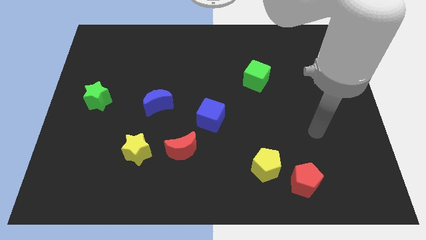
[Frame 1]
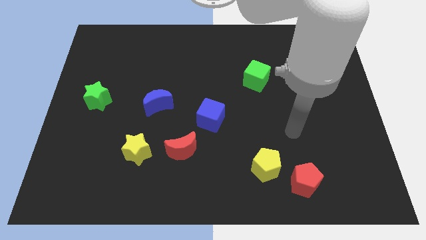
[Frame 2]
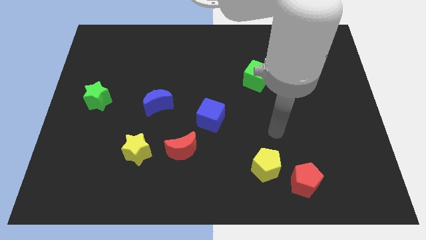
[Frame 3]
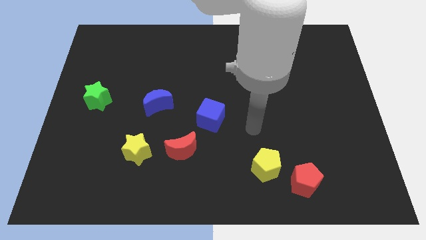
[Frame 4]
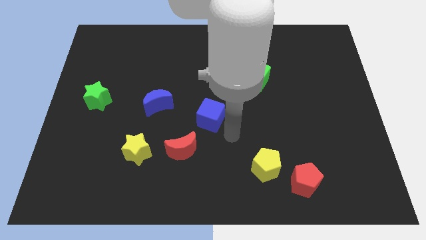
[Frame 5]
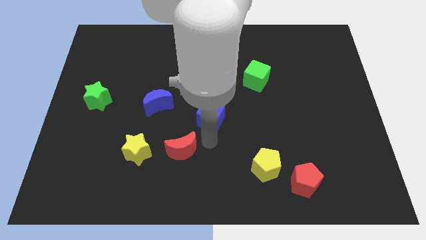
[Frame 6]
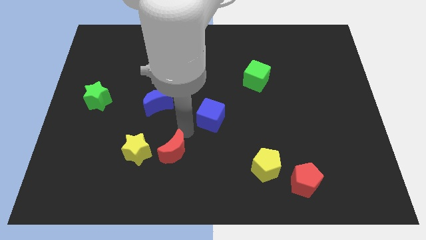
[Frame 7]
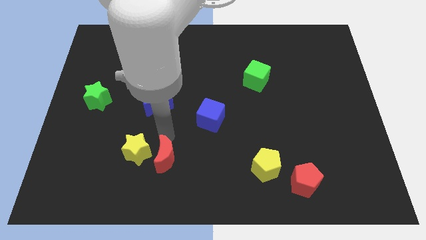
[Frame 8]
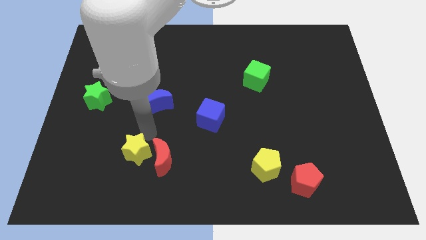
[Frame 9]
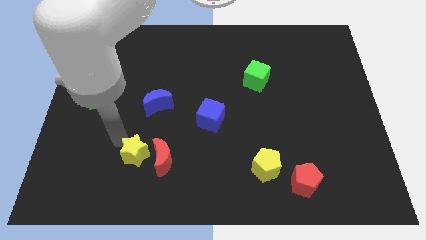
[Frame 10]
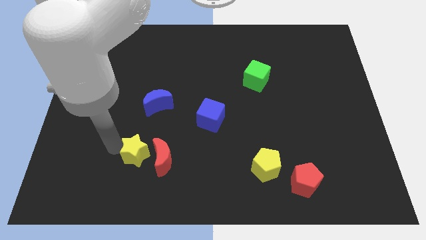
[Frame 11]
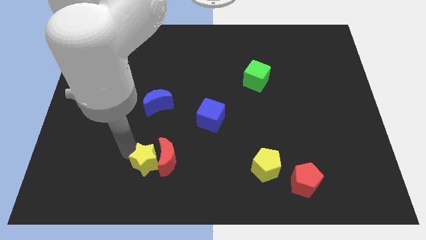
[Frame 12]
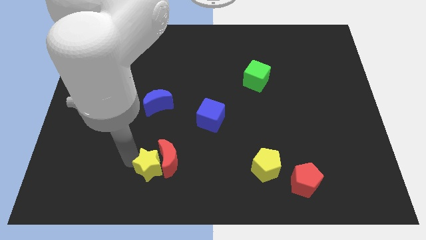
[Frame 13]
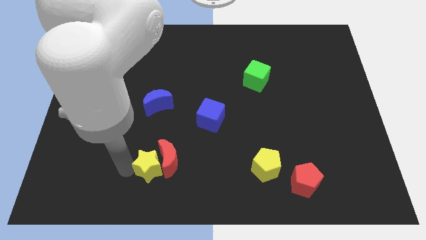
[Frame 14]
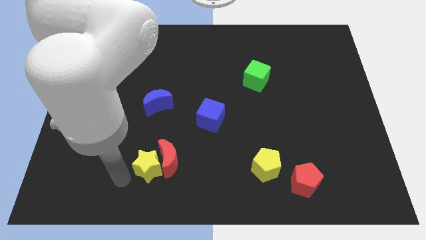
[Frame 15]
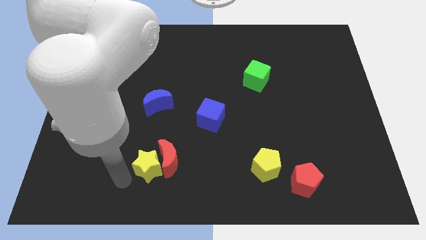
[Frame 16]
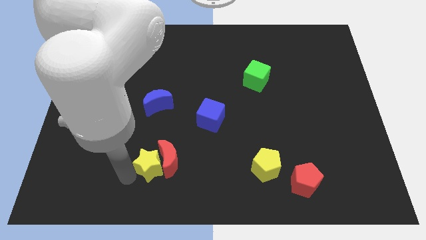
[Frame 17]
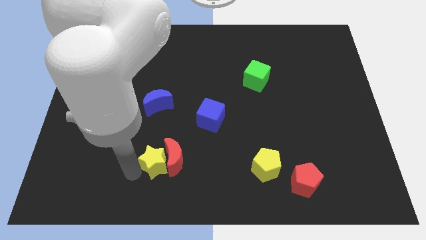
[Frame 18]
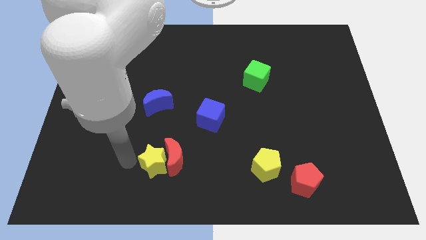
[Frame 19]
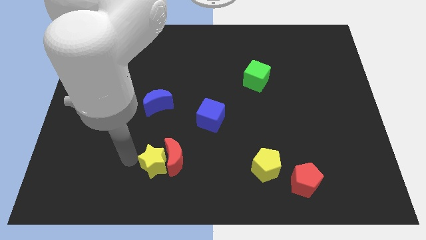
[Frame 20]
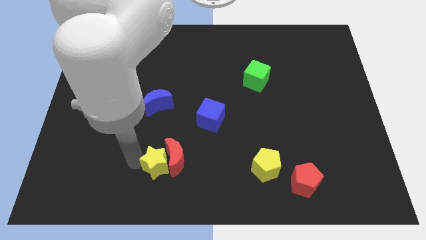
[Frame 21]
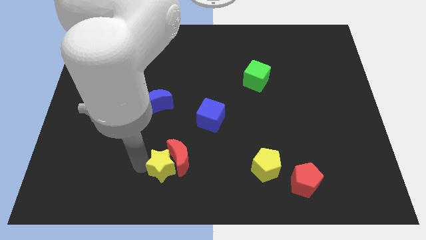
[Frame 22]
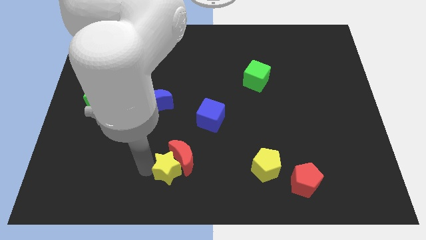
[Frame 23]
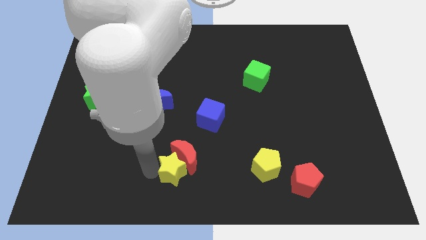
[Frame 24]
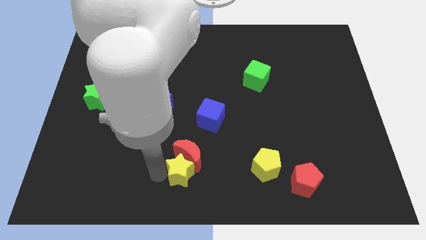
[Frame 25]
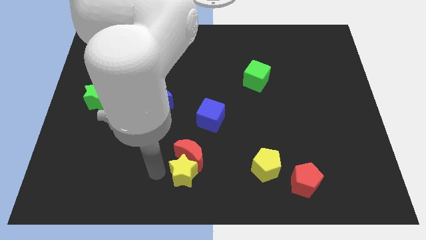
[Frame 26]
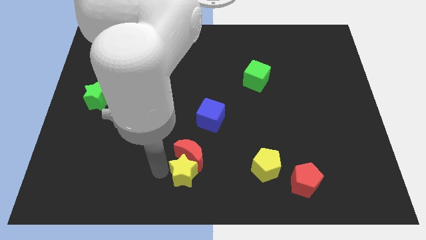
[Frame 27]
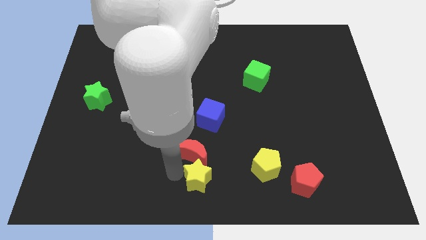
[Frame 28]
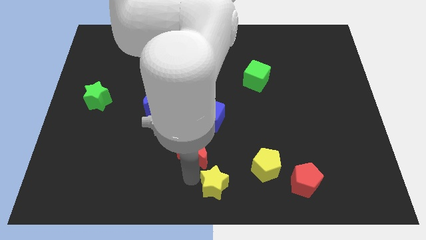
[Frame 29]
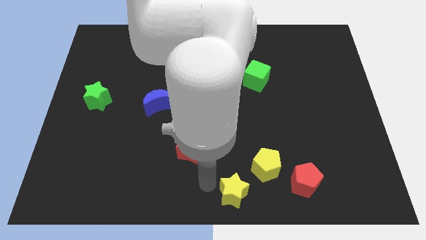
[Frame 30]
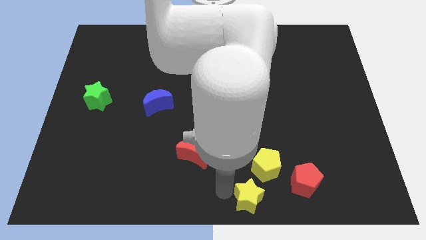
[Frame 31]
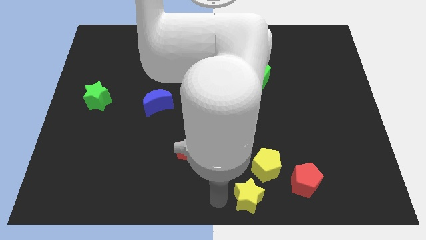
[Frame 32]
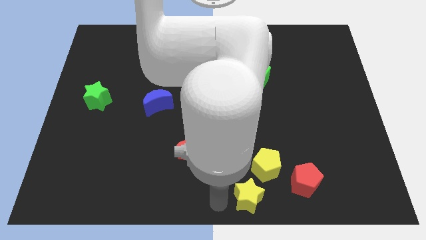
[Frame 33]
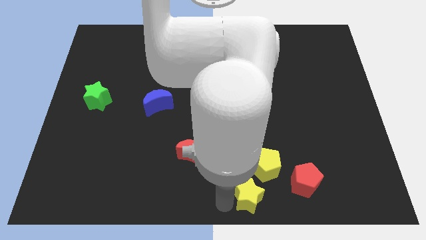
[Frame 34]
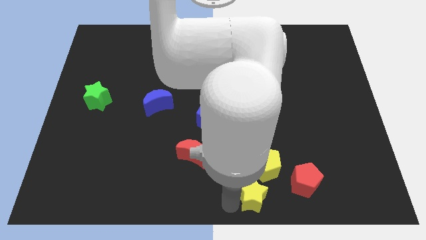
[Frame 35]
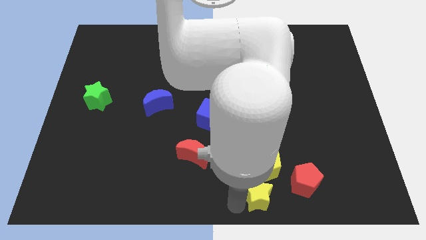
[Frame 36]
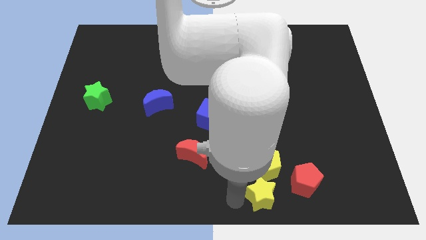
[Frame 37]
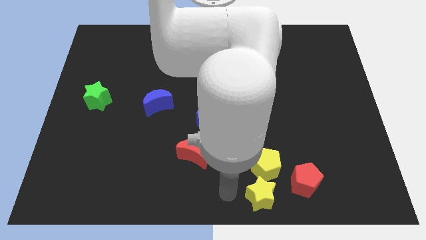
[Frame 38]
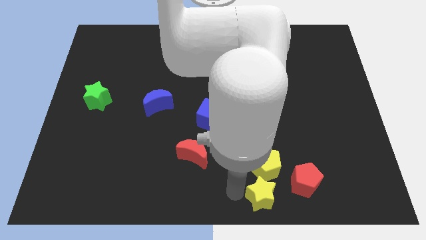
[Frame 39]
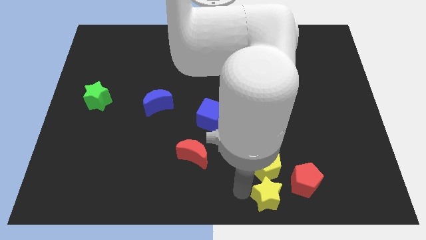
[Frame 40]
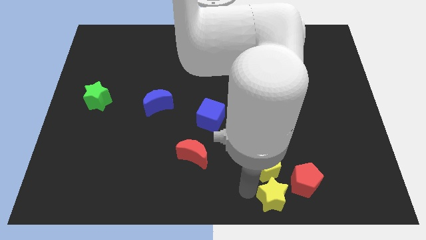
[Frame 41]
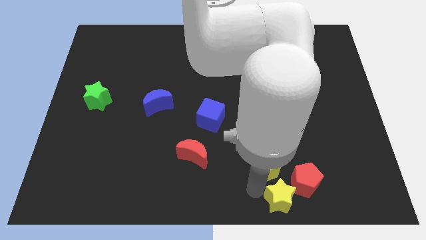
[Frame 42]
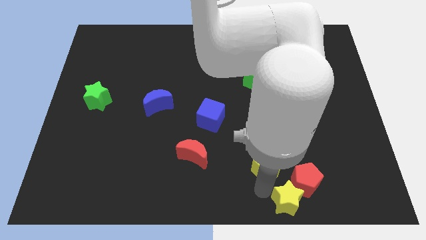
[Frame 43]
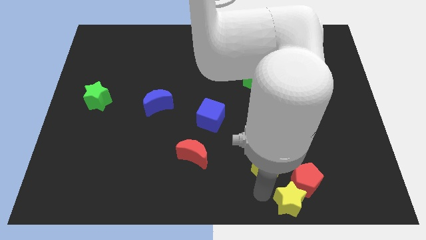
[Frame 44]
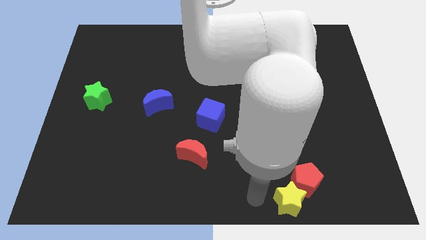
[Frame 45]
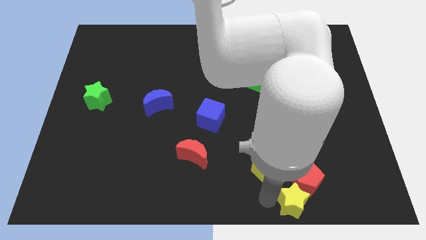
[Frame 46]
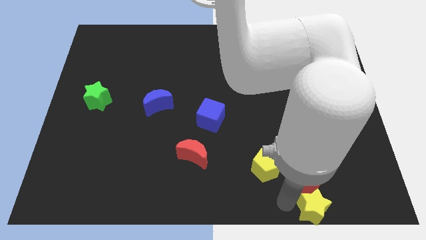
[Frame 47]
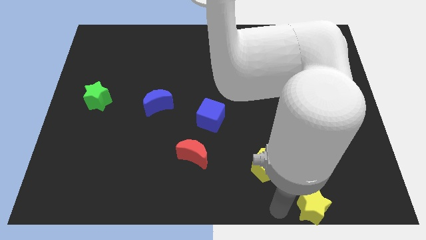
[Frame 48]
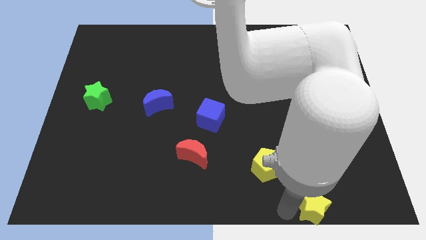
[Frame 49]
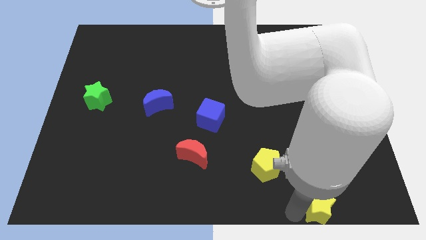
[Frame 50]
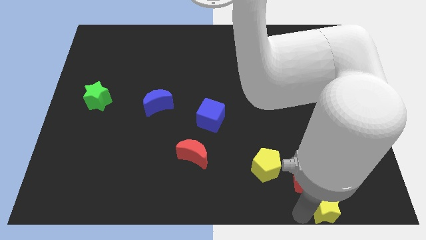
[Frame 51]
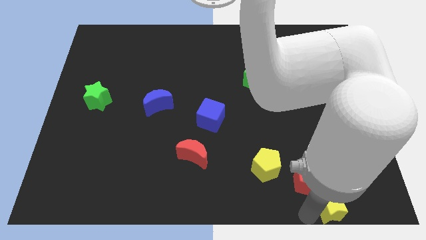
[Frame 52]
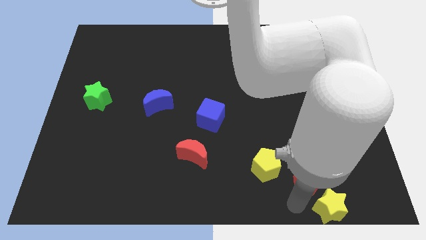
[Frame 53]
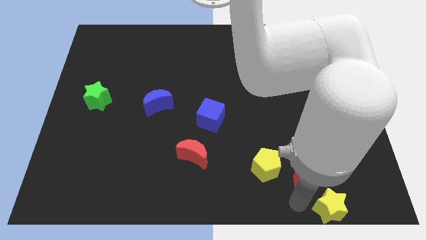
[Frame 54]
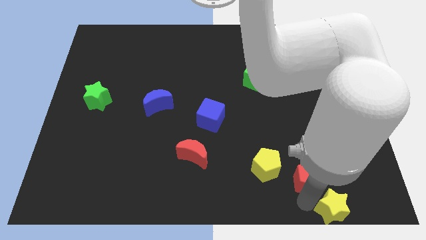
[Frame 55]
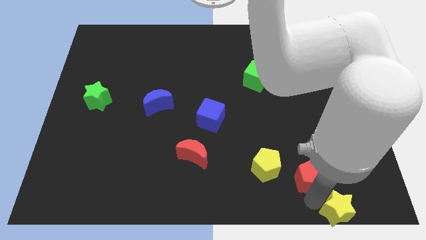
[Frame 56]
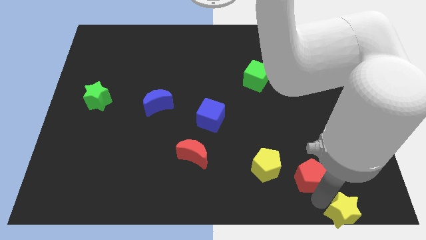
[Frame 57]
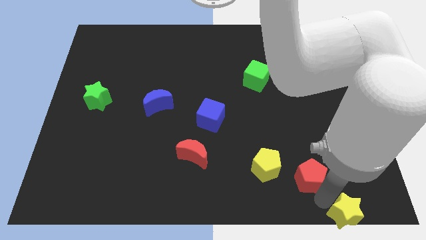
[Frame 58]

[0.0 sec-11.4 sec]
push the yellow star to the lower right corner

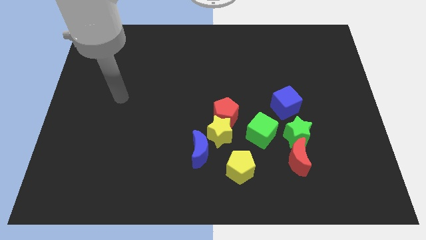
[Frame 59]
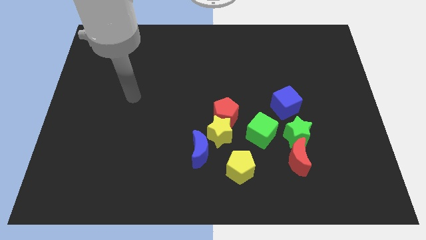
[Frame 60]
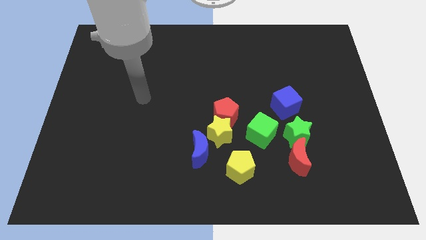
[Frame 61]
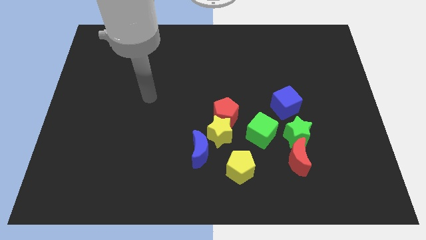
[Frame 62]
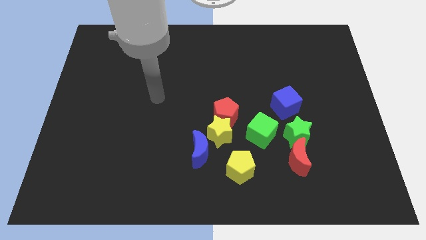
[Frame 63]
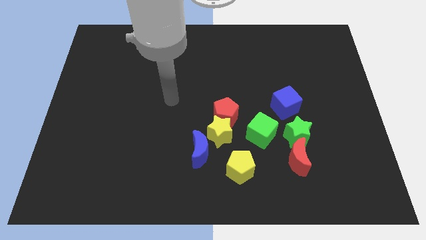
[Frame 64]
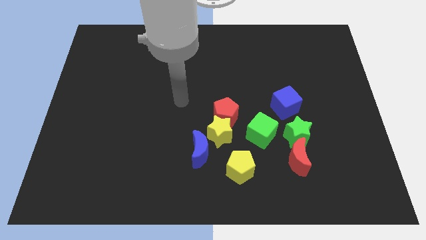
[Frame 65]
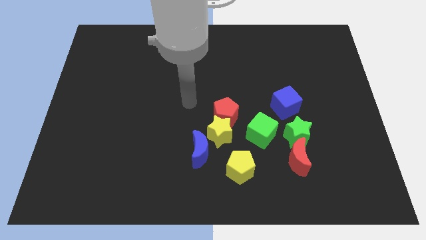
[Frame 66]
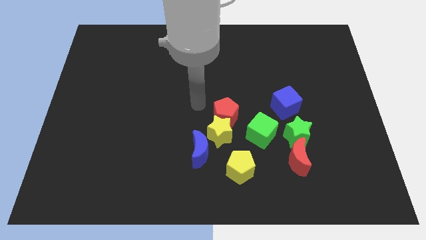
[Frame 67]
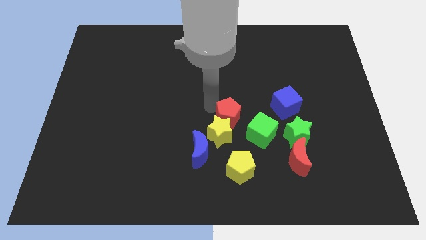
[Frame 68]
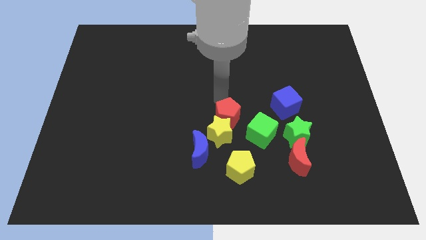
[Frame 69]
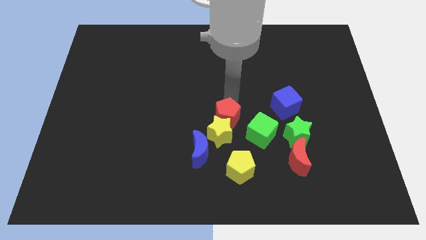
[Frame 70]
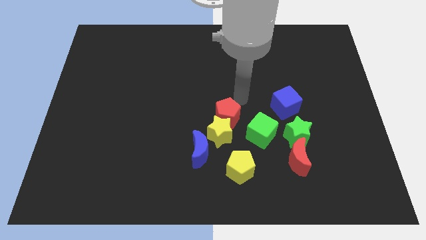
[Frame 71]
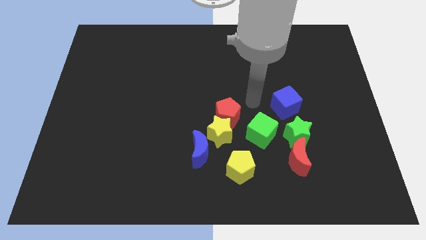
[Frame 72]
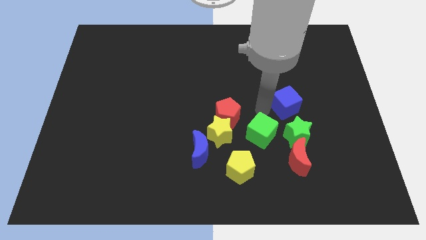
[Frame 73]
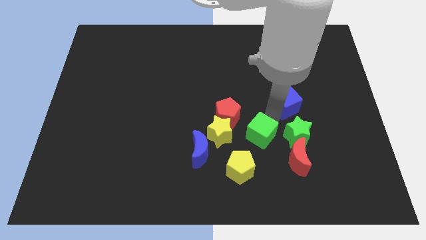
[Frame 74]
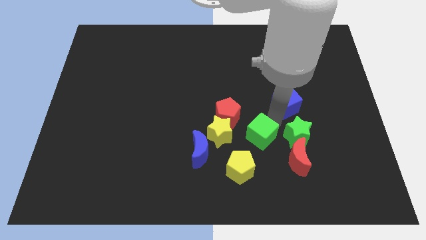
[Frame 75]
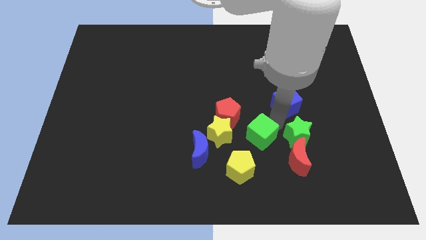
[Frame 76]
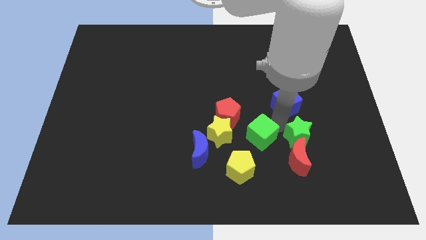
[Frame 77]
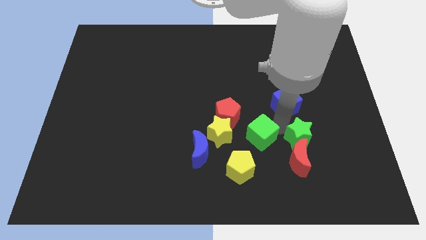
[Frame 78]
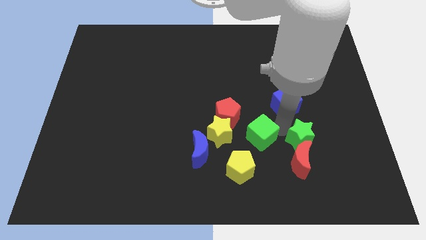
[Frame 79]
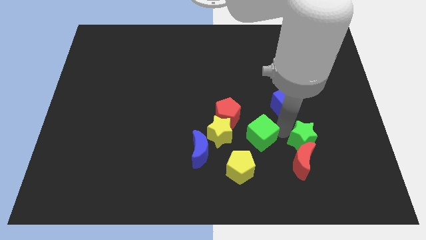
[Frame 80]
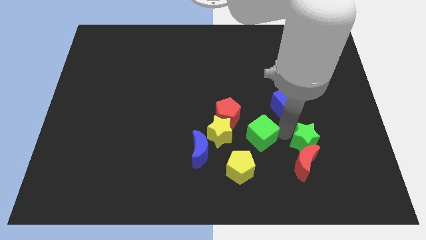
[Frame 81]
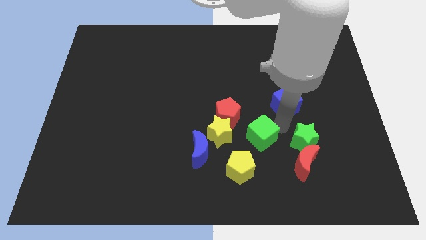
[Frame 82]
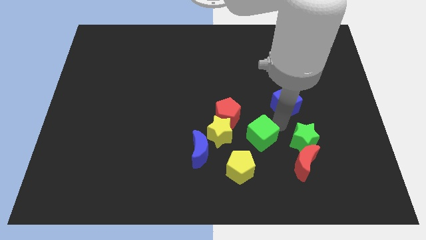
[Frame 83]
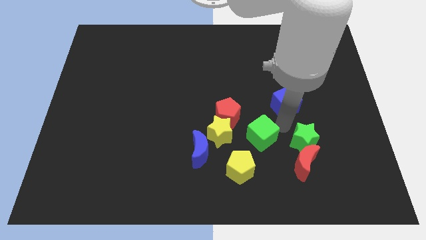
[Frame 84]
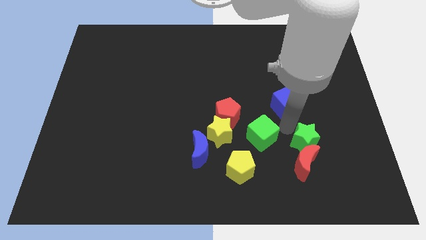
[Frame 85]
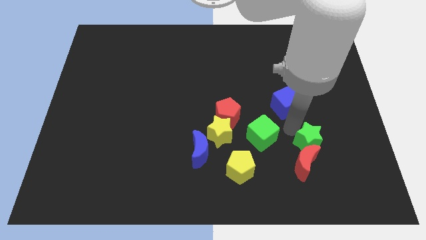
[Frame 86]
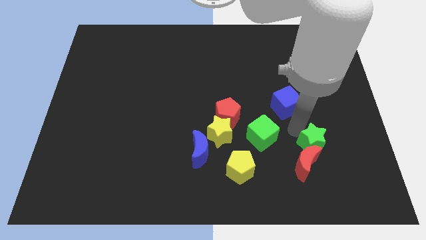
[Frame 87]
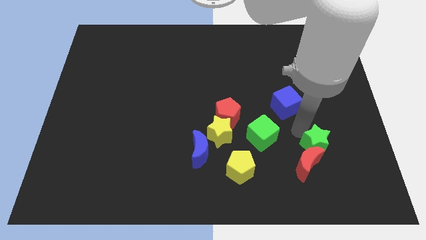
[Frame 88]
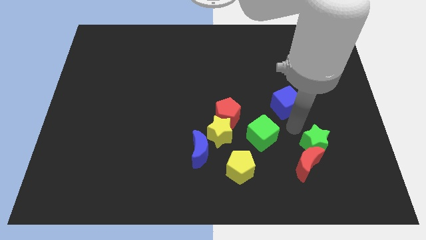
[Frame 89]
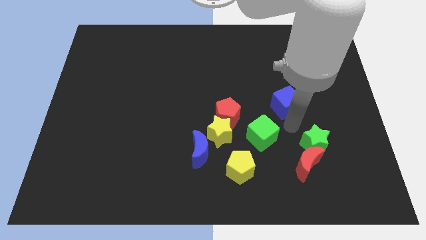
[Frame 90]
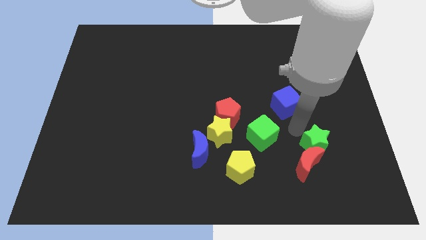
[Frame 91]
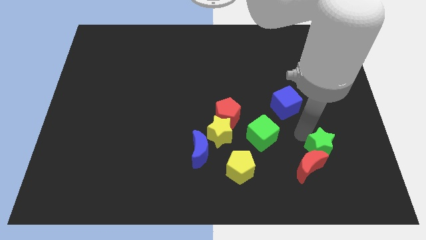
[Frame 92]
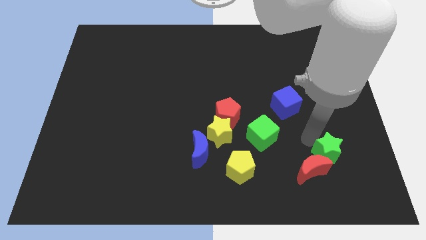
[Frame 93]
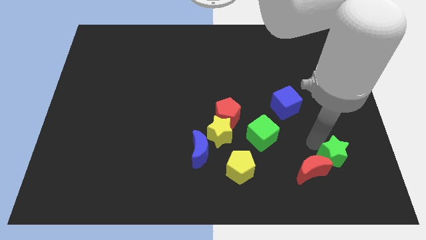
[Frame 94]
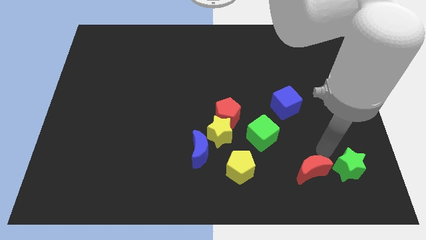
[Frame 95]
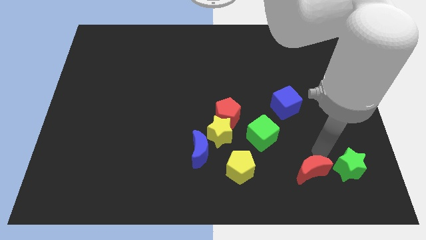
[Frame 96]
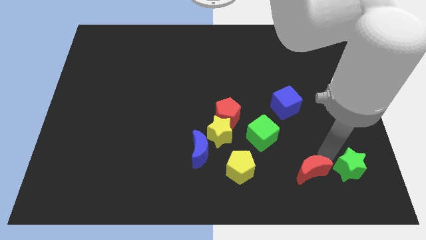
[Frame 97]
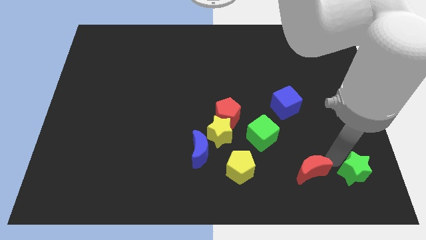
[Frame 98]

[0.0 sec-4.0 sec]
push the green star to the bottom right corner
